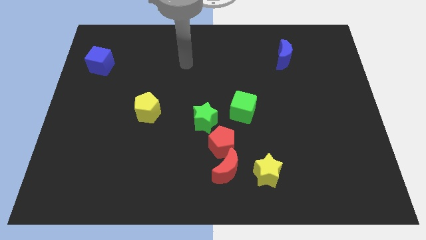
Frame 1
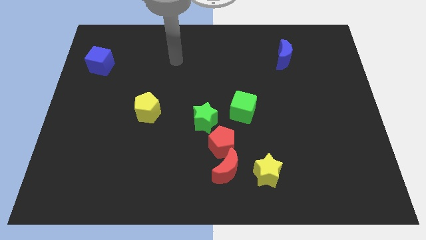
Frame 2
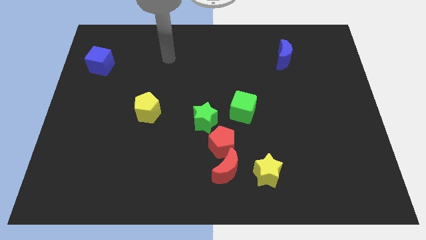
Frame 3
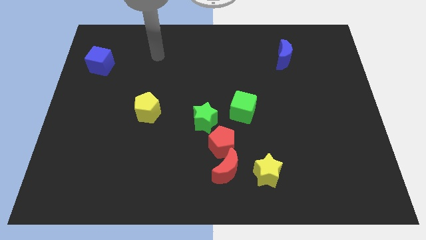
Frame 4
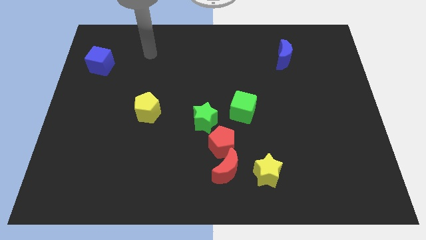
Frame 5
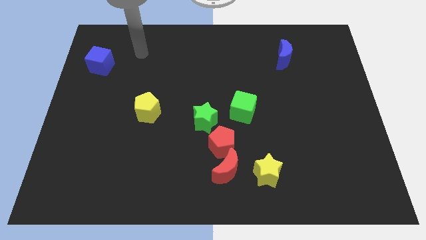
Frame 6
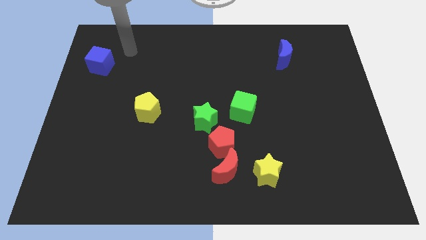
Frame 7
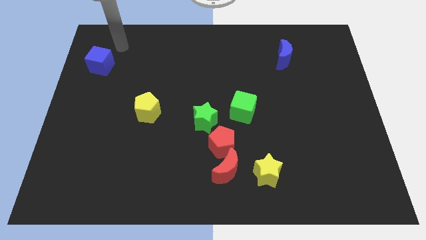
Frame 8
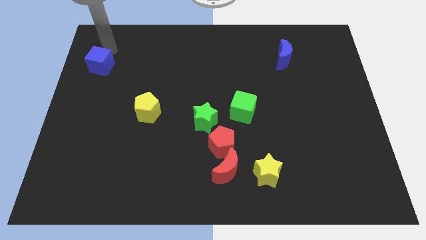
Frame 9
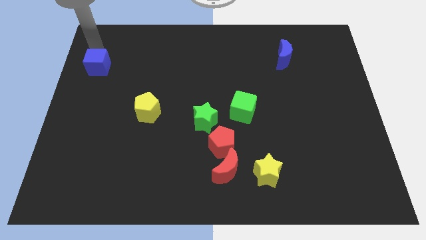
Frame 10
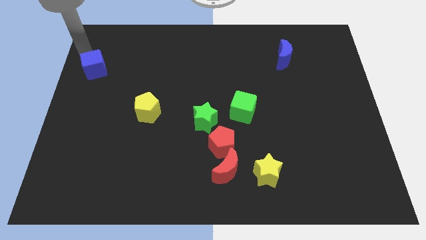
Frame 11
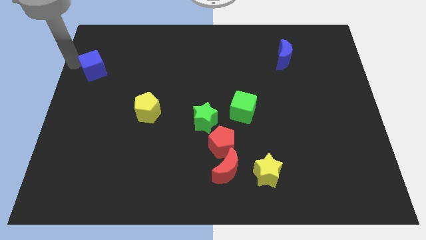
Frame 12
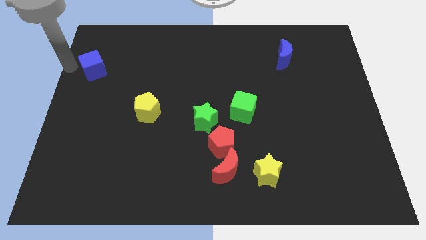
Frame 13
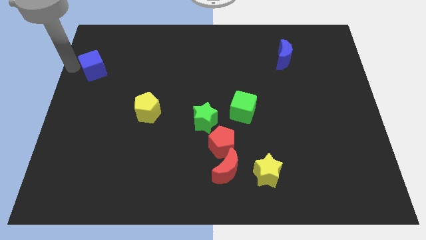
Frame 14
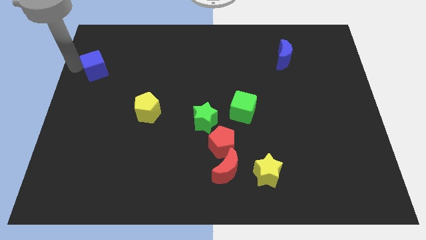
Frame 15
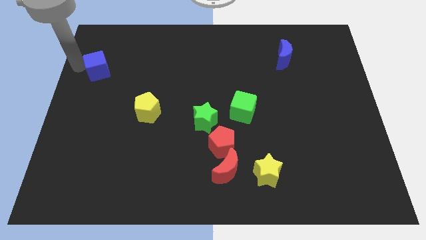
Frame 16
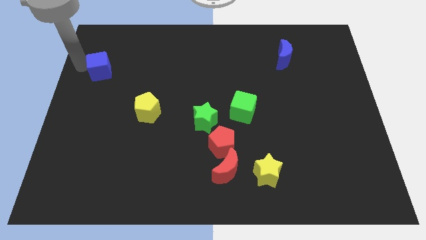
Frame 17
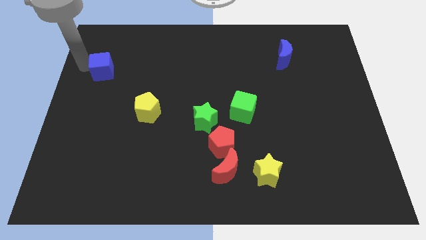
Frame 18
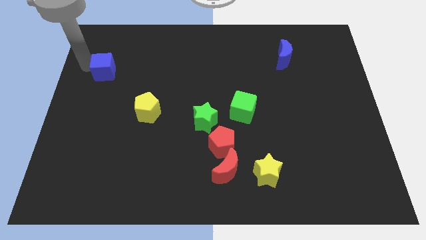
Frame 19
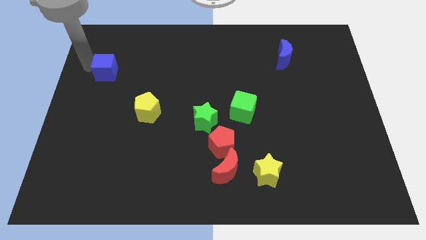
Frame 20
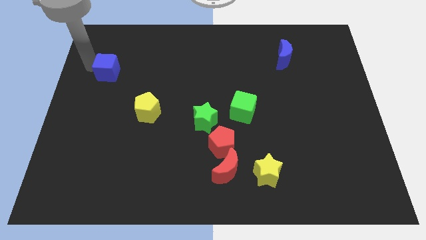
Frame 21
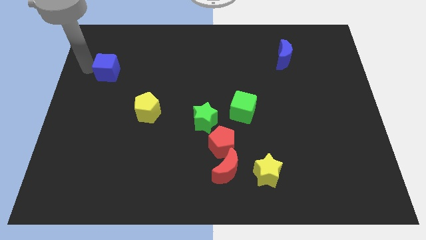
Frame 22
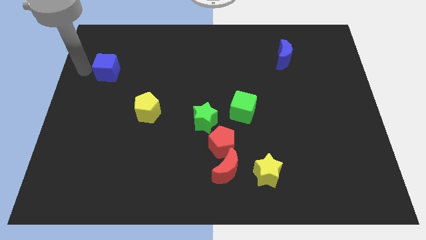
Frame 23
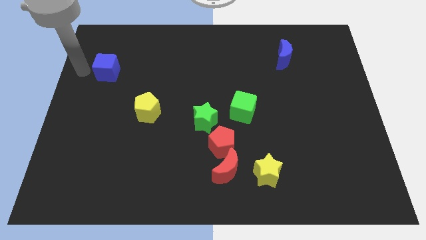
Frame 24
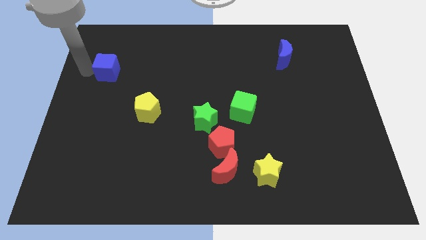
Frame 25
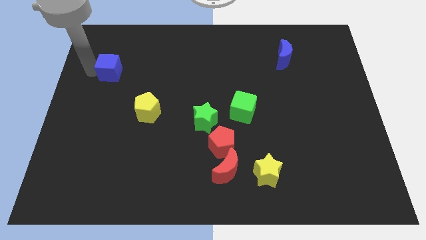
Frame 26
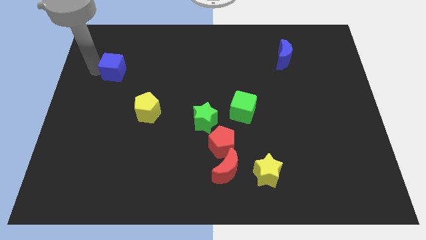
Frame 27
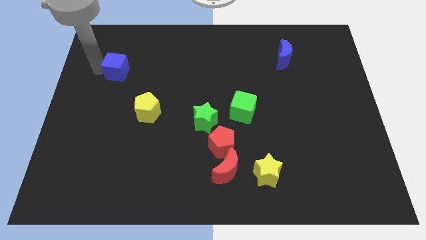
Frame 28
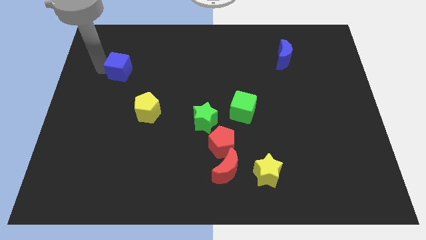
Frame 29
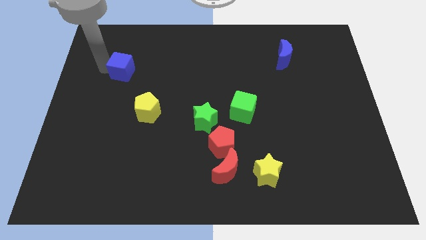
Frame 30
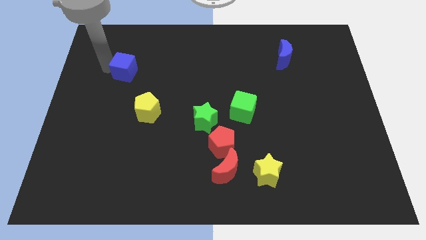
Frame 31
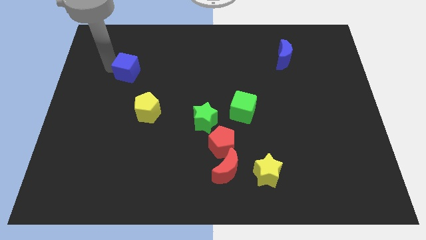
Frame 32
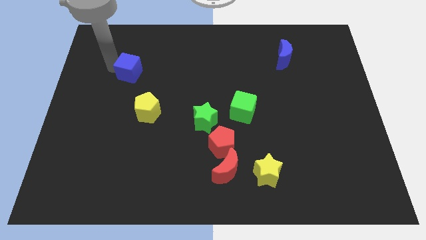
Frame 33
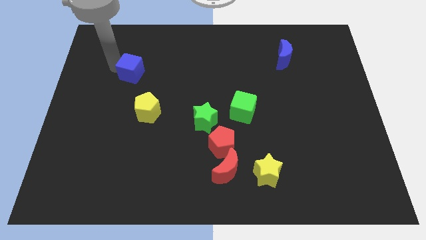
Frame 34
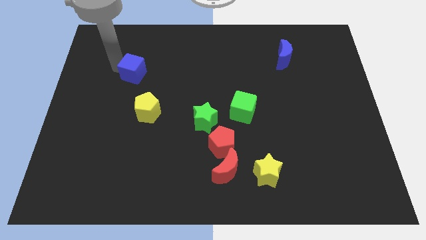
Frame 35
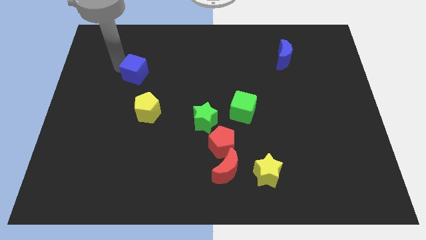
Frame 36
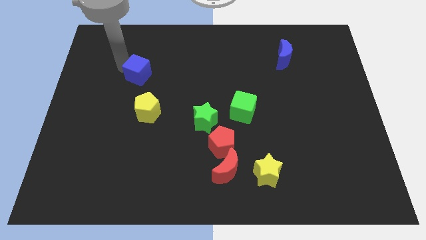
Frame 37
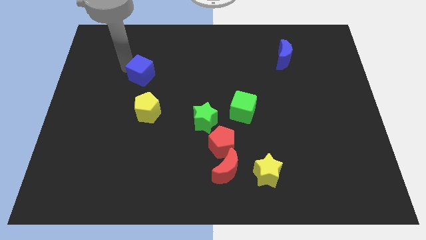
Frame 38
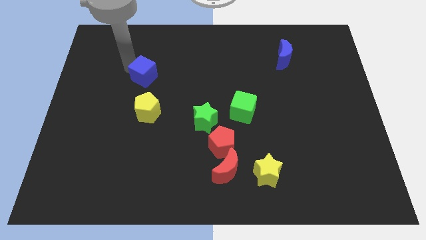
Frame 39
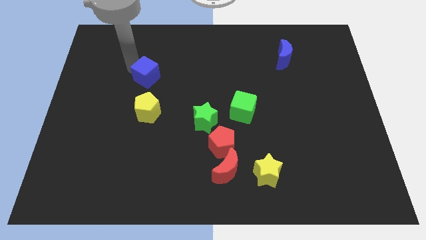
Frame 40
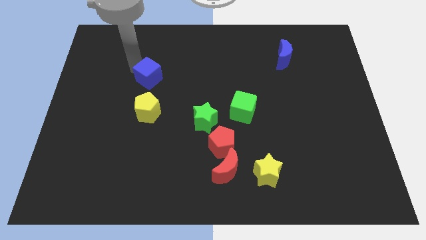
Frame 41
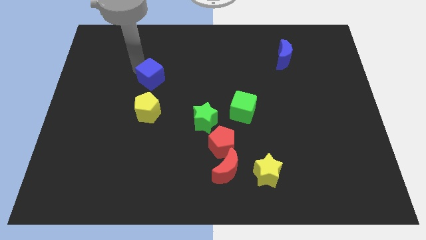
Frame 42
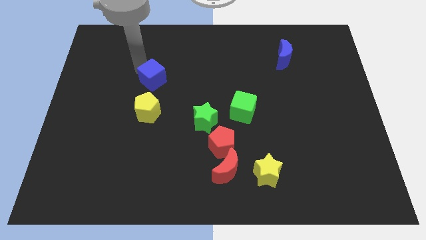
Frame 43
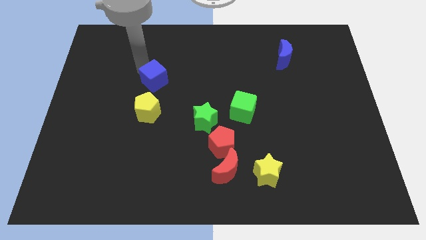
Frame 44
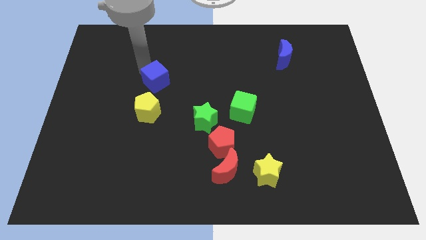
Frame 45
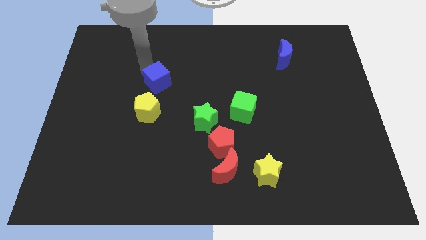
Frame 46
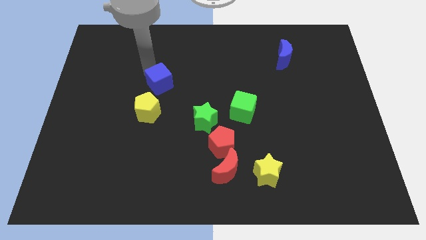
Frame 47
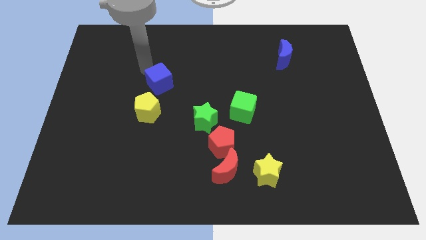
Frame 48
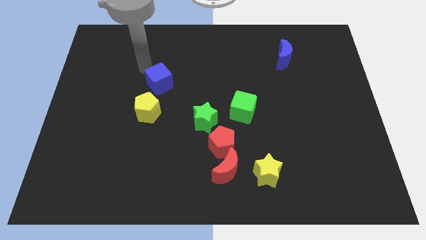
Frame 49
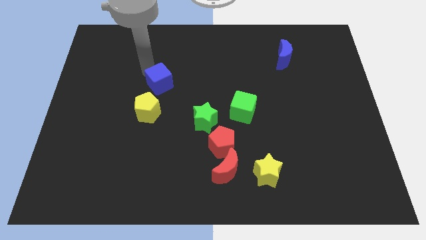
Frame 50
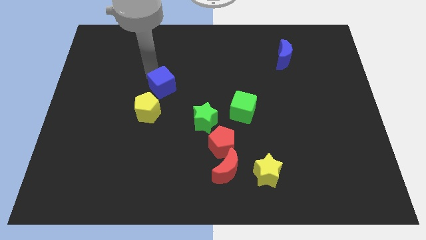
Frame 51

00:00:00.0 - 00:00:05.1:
move the blue cube diagonally up and to the right of the yellow pentagon

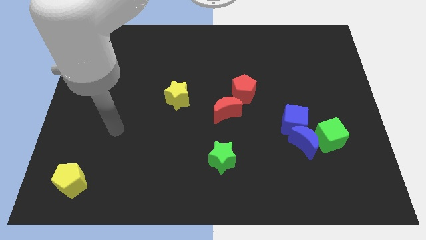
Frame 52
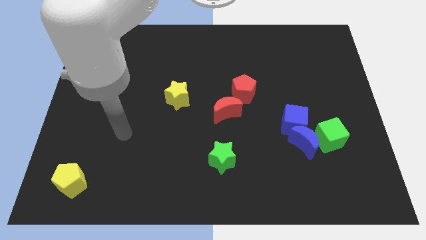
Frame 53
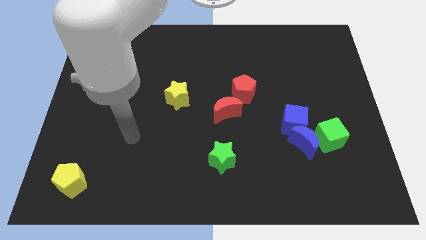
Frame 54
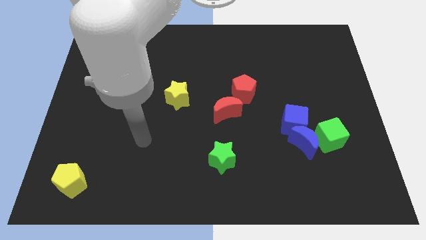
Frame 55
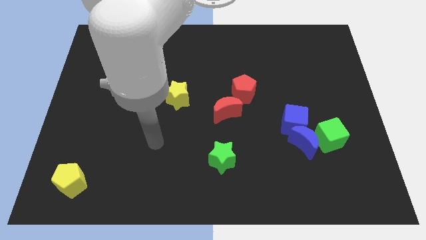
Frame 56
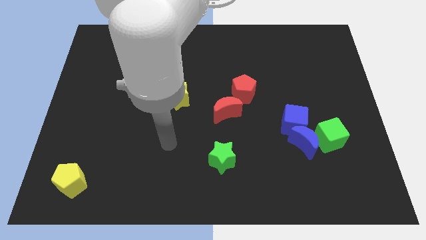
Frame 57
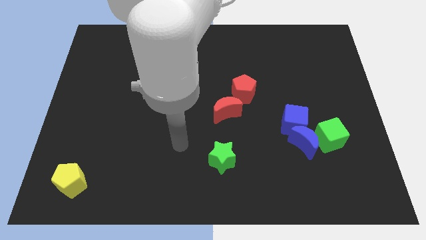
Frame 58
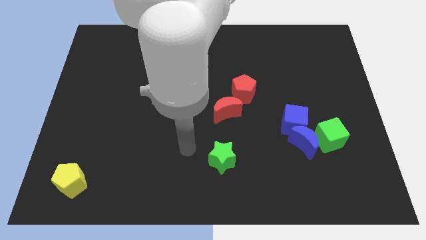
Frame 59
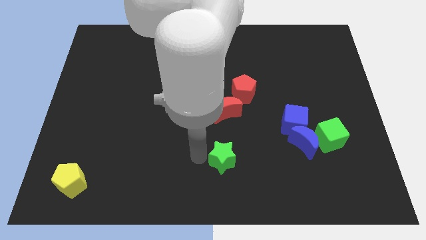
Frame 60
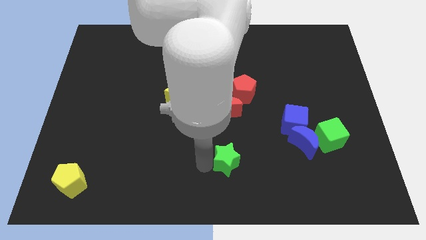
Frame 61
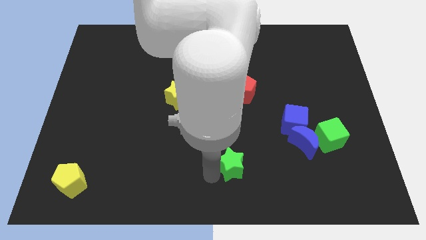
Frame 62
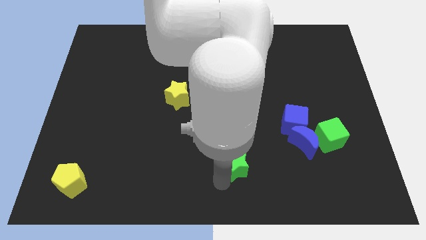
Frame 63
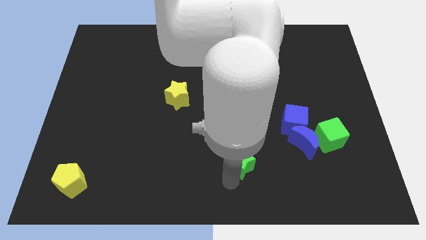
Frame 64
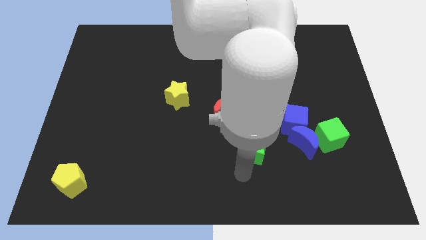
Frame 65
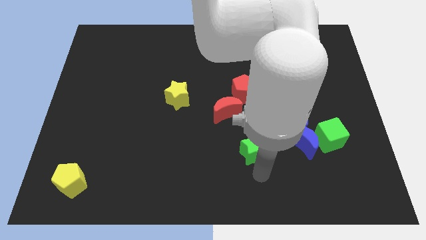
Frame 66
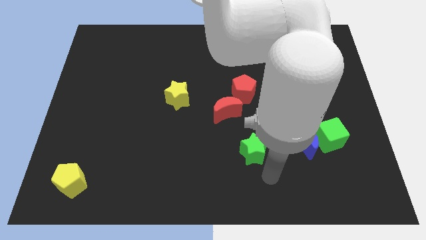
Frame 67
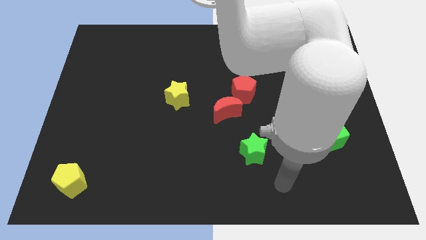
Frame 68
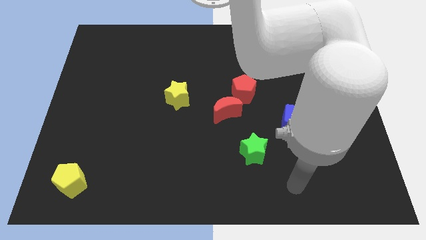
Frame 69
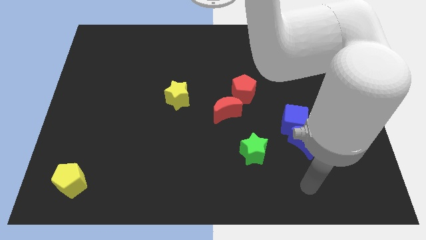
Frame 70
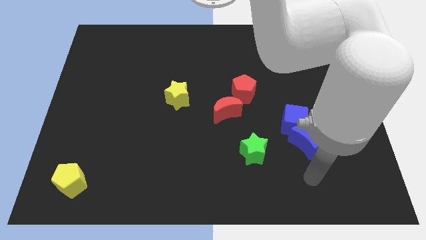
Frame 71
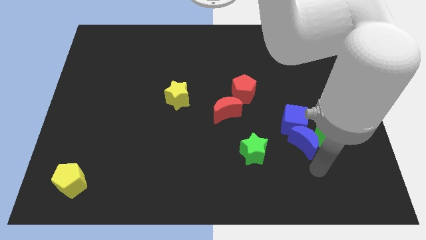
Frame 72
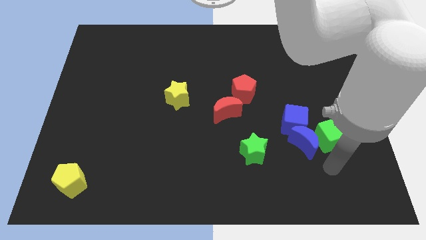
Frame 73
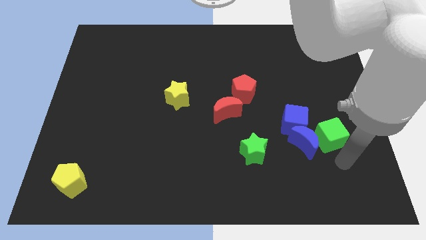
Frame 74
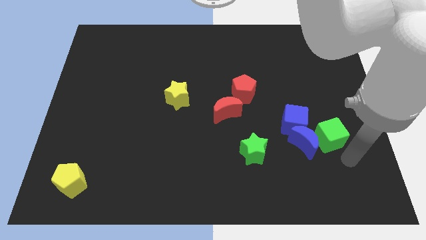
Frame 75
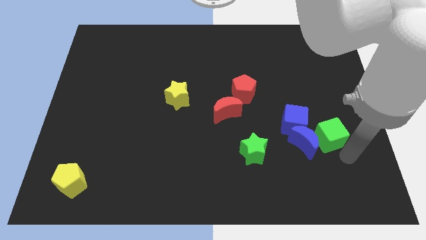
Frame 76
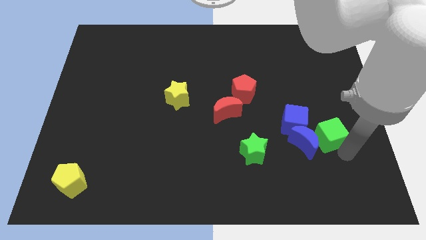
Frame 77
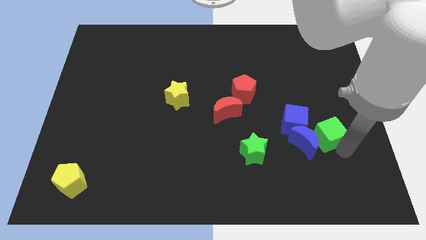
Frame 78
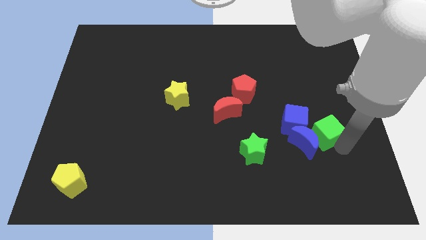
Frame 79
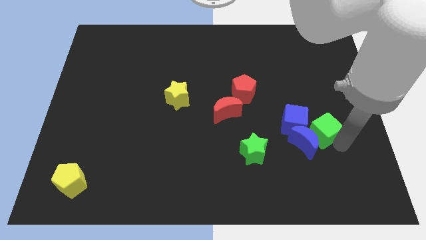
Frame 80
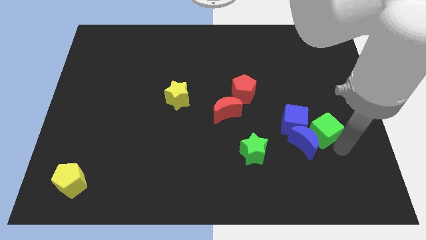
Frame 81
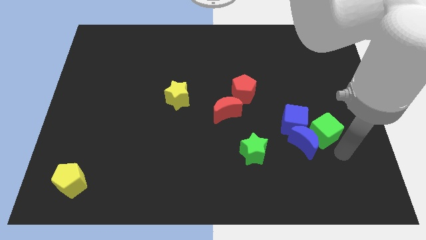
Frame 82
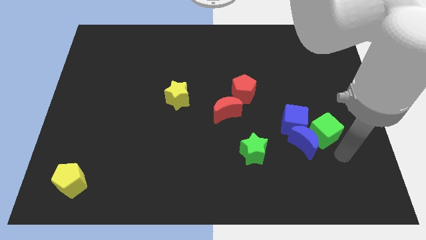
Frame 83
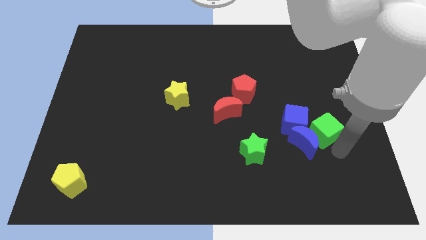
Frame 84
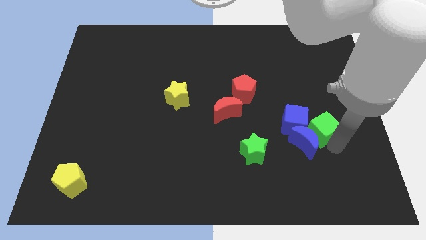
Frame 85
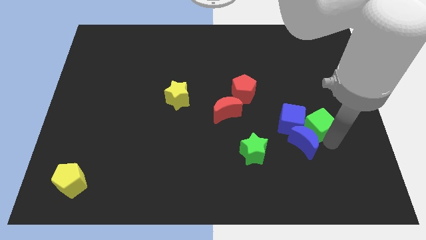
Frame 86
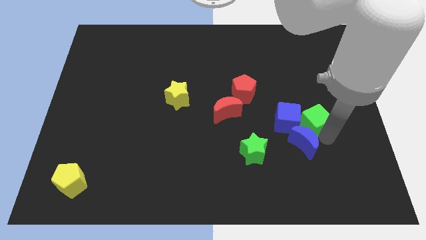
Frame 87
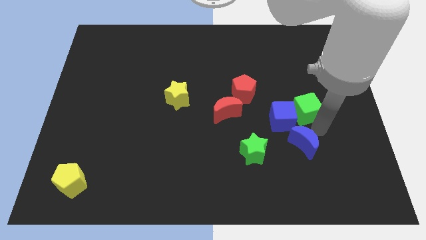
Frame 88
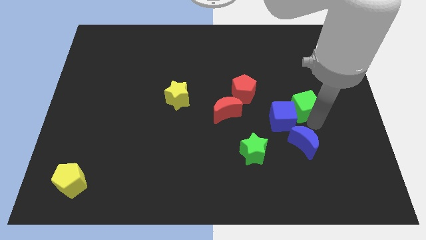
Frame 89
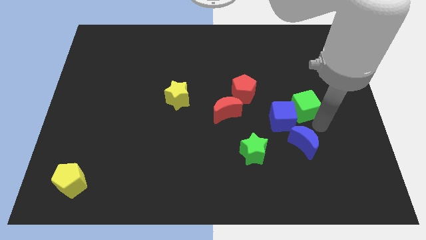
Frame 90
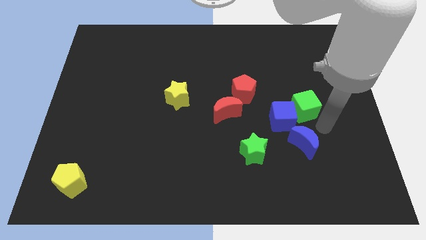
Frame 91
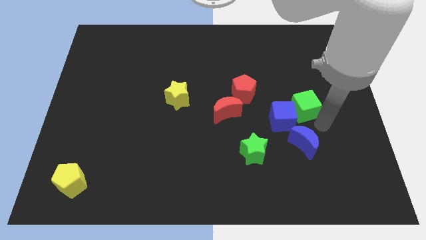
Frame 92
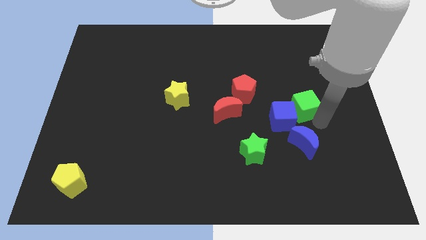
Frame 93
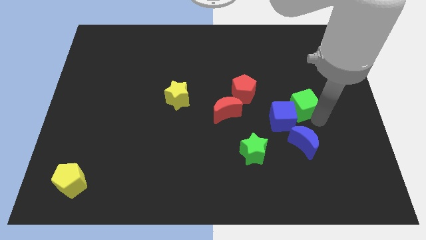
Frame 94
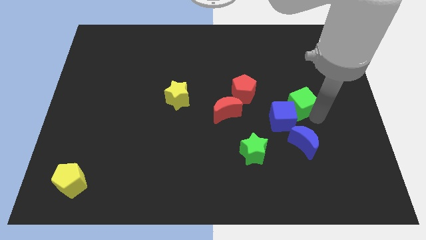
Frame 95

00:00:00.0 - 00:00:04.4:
slide the green cube just right of the red pentagon
